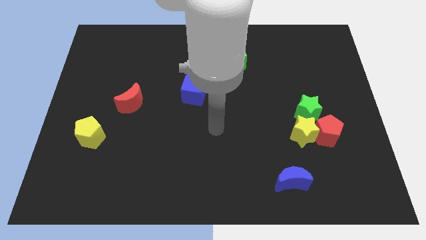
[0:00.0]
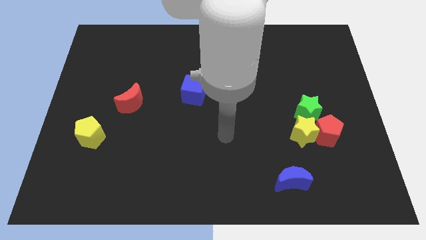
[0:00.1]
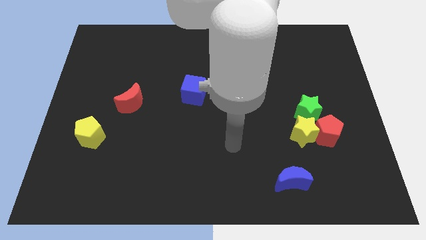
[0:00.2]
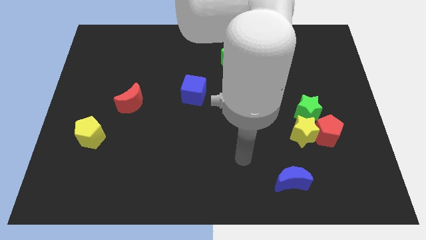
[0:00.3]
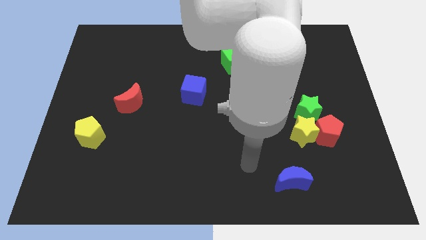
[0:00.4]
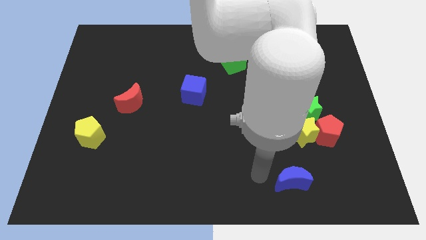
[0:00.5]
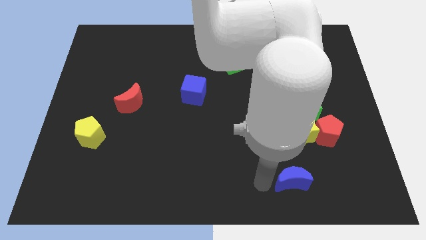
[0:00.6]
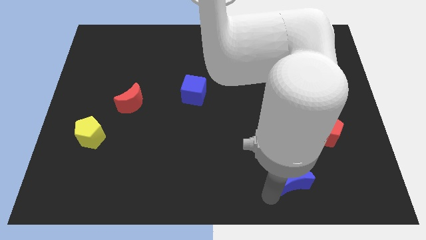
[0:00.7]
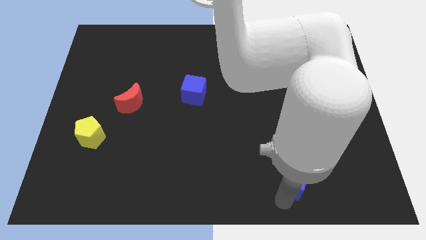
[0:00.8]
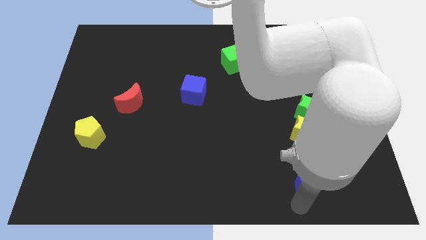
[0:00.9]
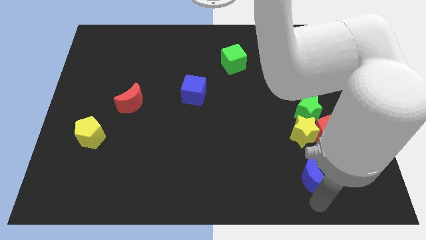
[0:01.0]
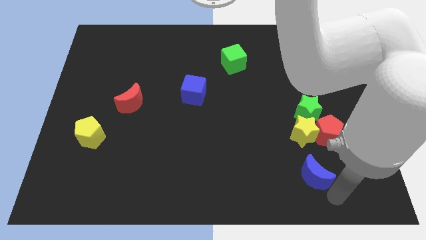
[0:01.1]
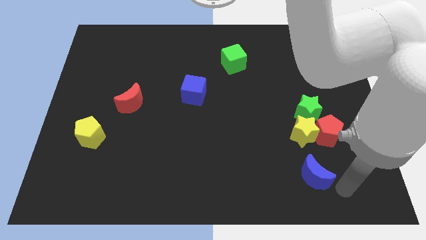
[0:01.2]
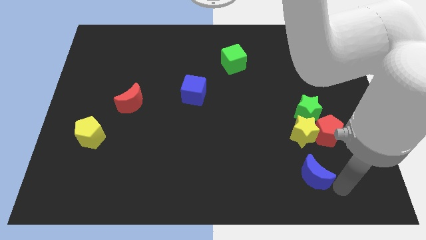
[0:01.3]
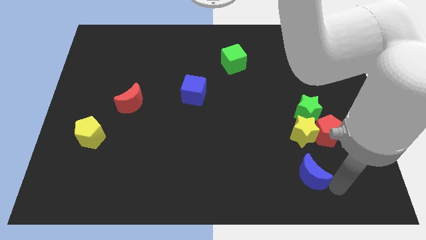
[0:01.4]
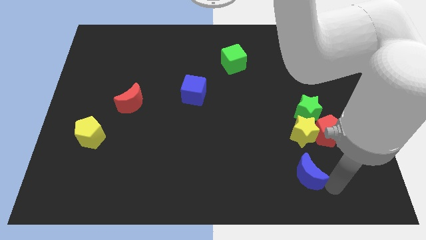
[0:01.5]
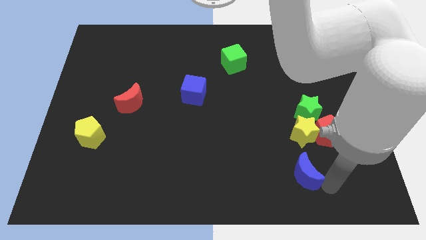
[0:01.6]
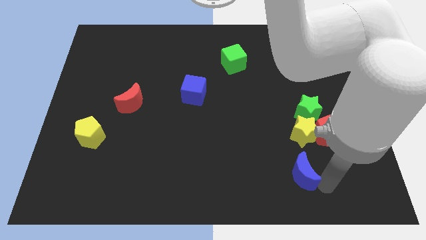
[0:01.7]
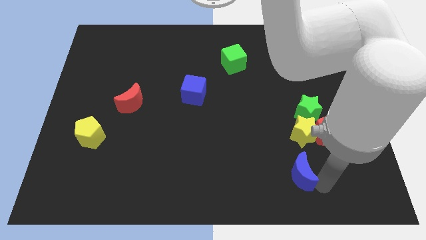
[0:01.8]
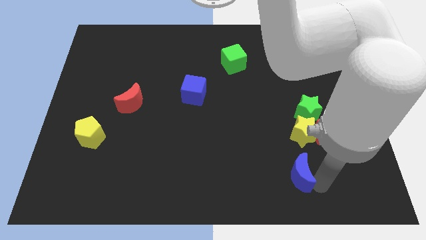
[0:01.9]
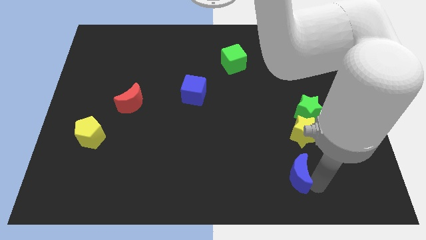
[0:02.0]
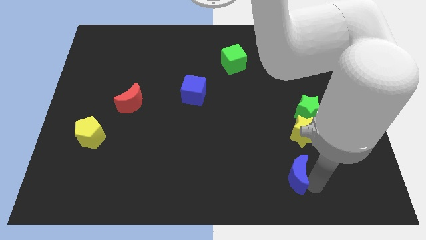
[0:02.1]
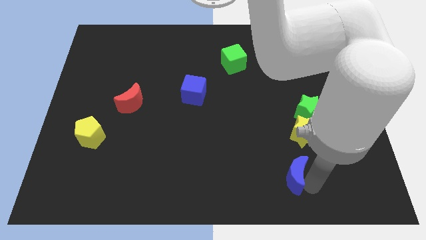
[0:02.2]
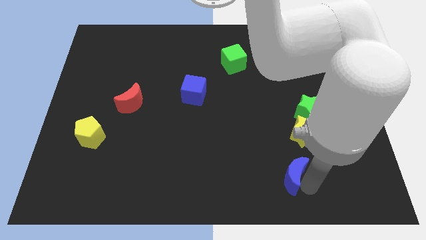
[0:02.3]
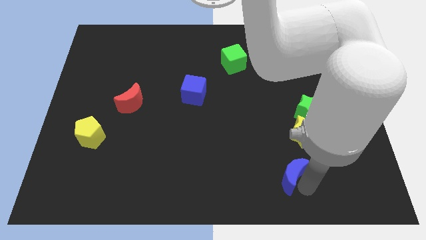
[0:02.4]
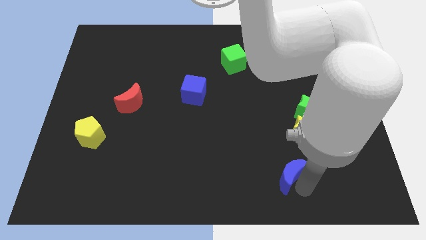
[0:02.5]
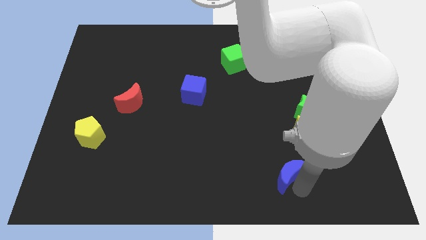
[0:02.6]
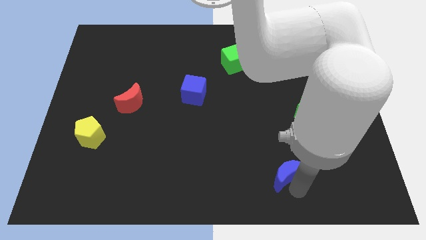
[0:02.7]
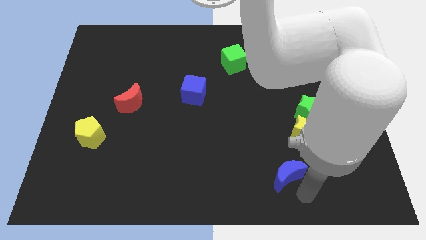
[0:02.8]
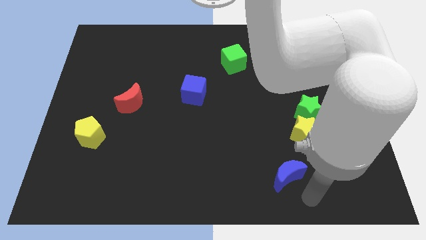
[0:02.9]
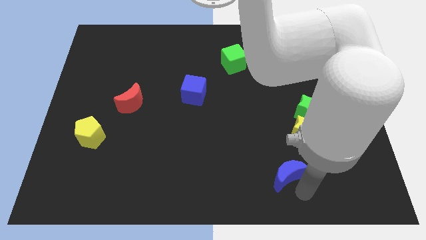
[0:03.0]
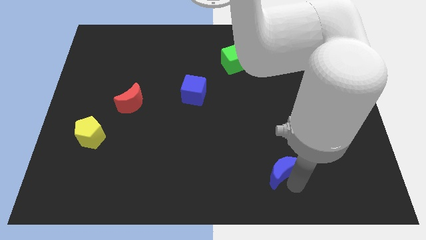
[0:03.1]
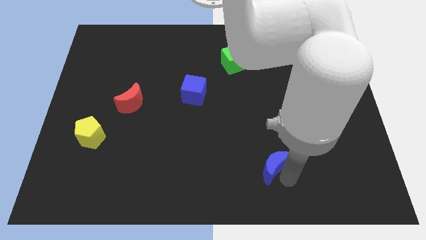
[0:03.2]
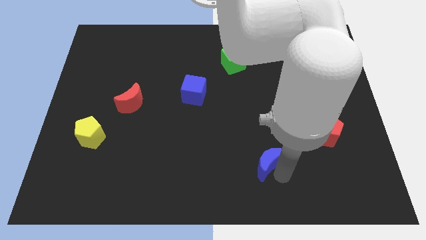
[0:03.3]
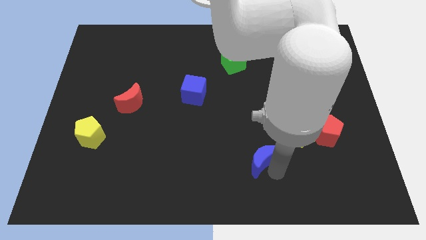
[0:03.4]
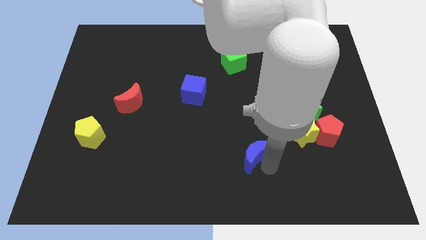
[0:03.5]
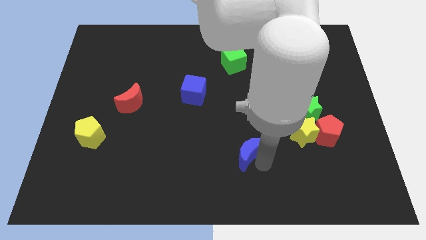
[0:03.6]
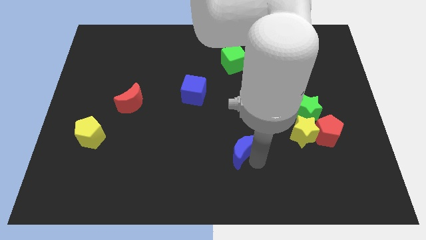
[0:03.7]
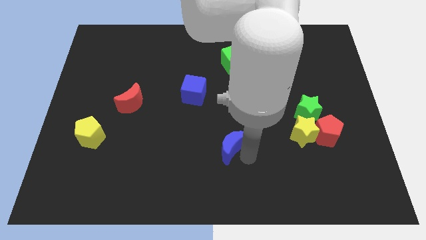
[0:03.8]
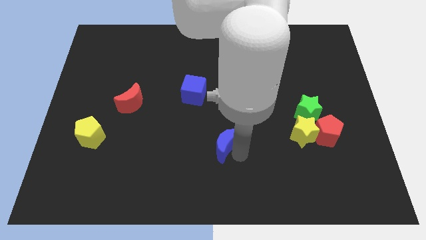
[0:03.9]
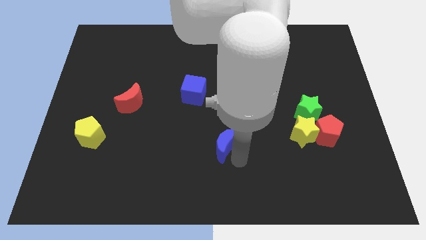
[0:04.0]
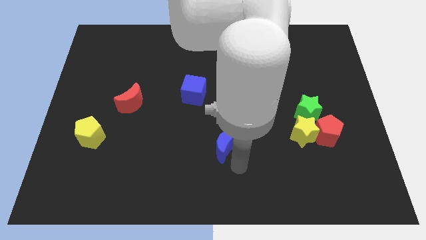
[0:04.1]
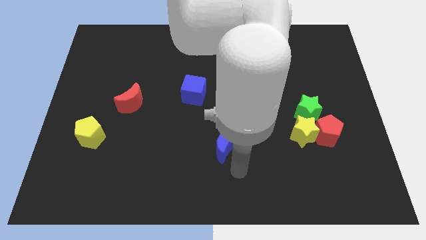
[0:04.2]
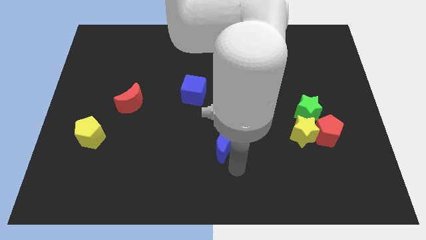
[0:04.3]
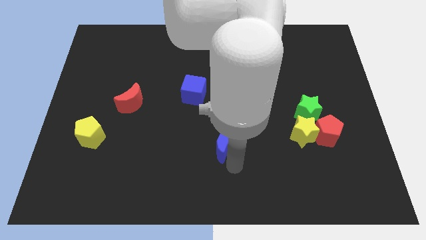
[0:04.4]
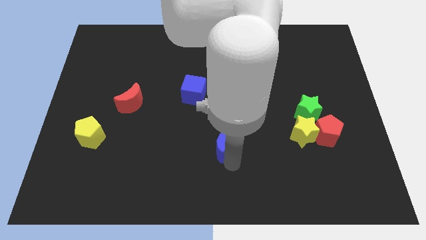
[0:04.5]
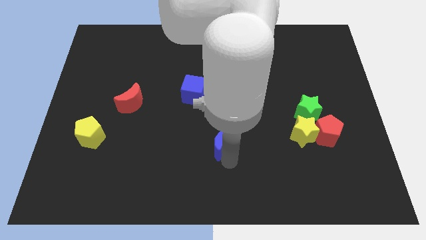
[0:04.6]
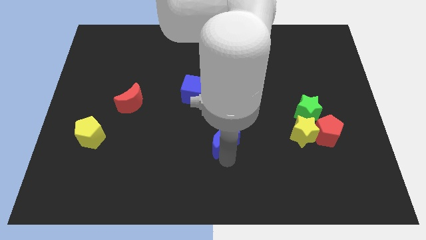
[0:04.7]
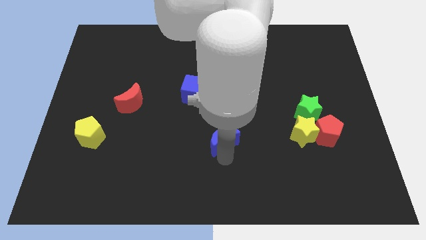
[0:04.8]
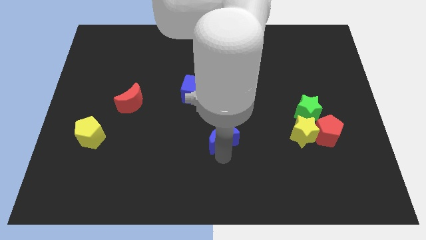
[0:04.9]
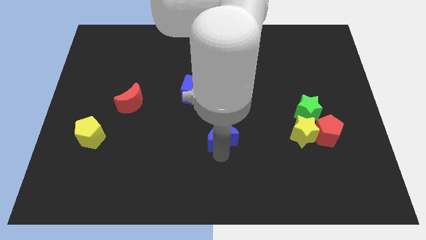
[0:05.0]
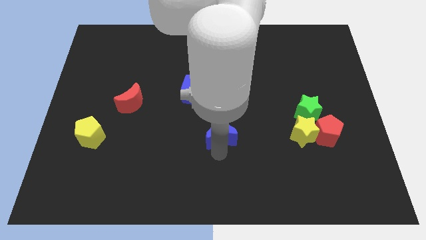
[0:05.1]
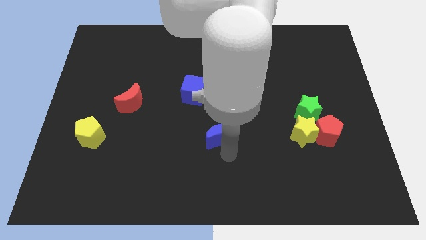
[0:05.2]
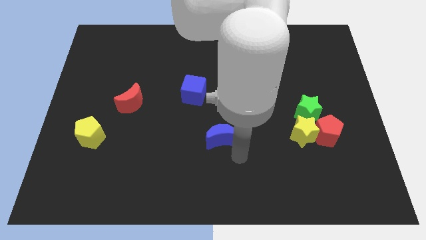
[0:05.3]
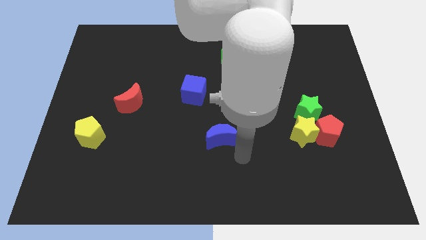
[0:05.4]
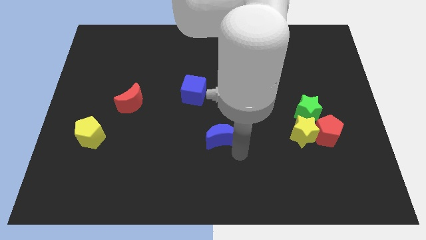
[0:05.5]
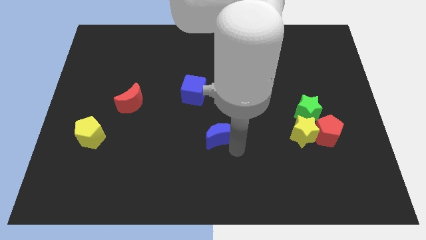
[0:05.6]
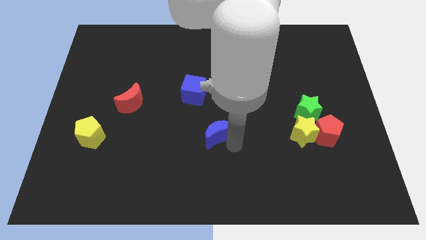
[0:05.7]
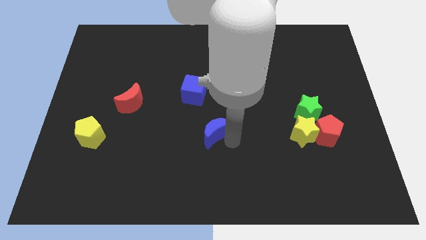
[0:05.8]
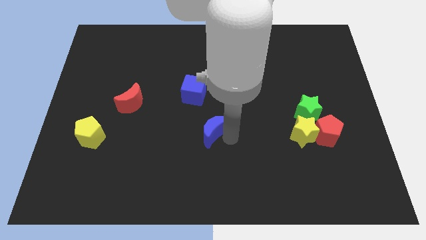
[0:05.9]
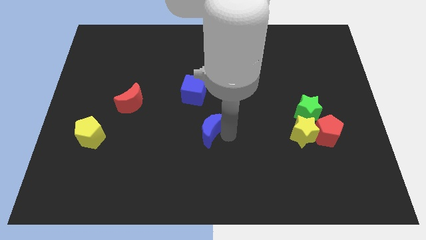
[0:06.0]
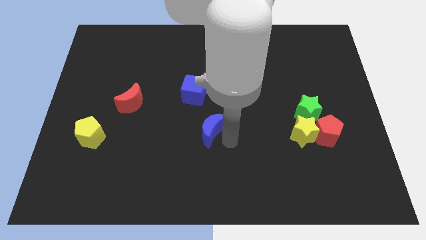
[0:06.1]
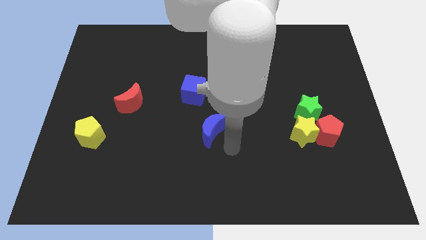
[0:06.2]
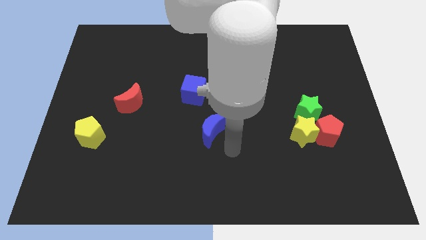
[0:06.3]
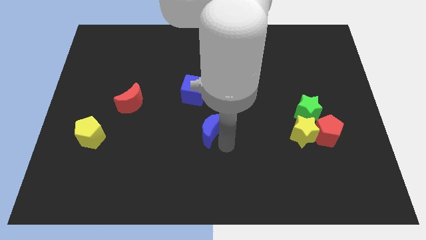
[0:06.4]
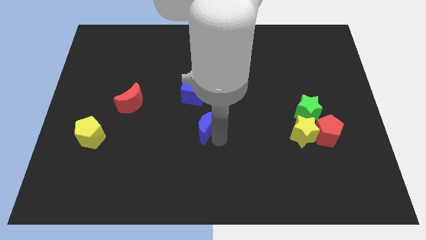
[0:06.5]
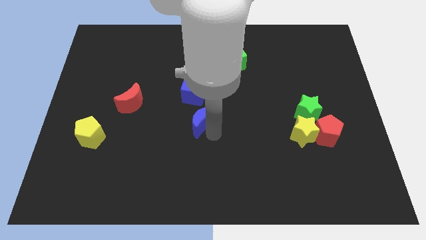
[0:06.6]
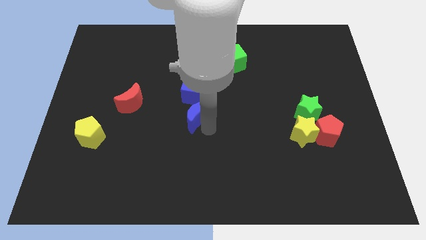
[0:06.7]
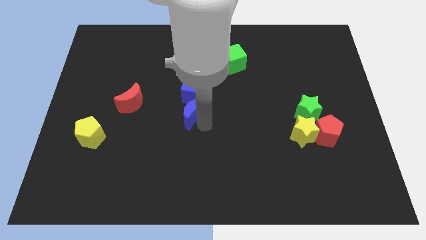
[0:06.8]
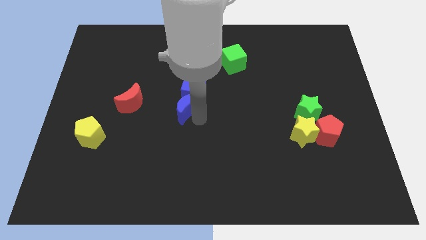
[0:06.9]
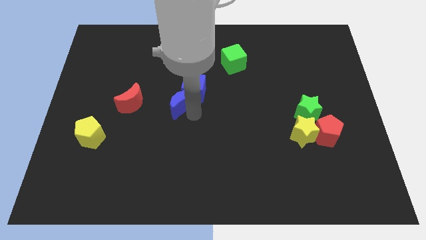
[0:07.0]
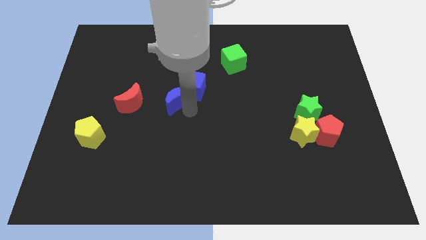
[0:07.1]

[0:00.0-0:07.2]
move the blue moon to the left of the blue cube
